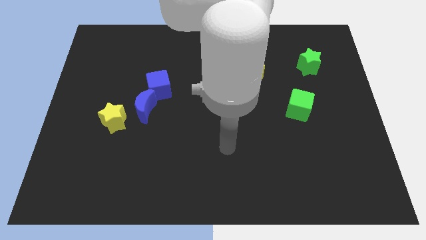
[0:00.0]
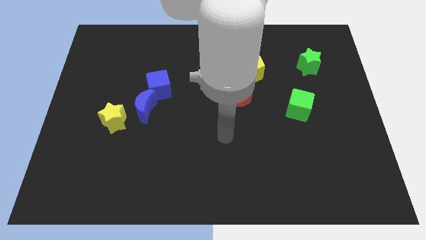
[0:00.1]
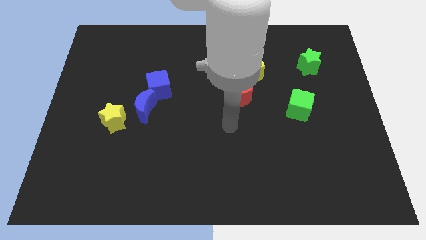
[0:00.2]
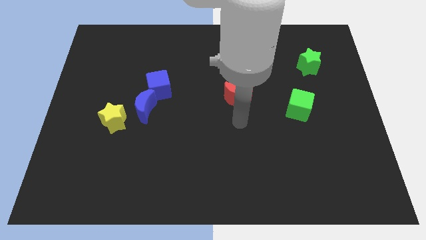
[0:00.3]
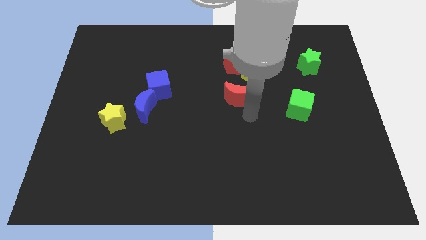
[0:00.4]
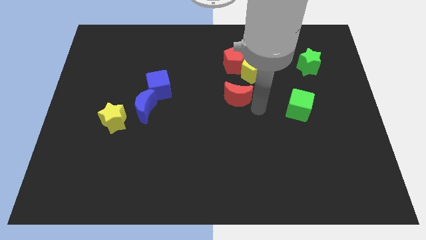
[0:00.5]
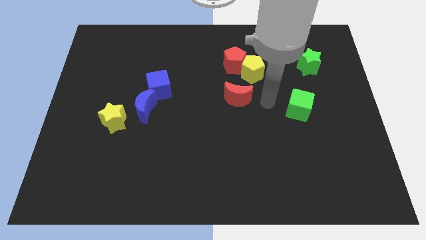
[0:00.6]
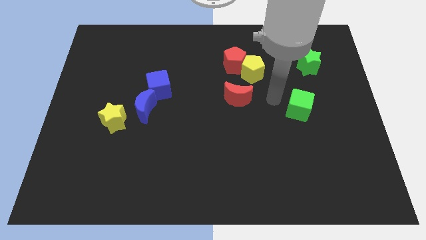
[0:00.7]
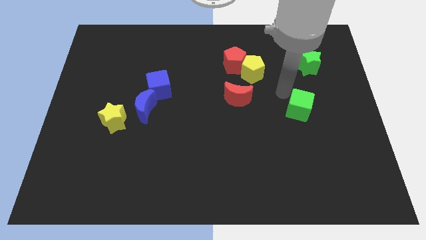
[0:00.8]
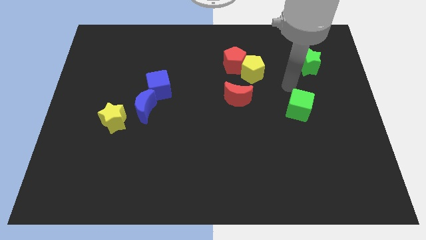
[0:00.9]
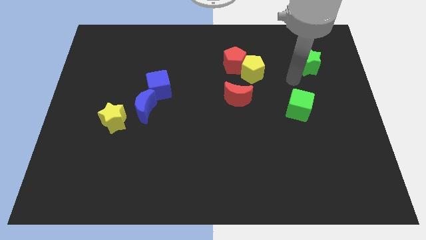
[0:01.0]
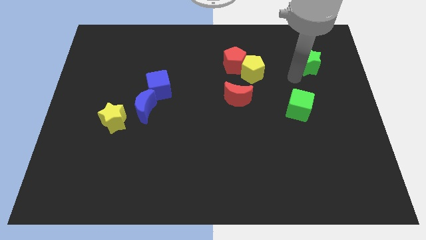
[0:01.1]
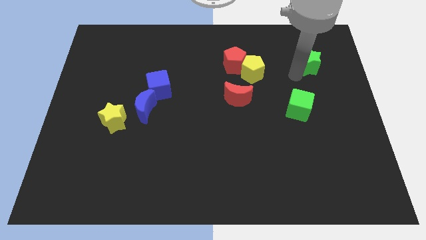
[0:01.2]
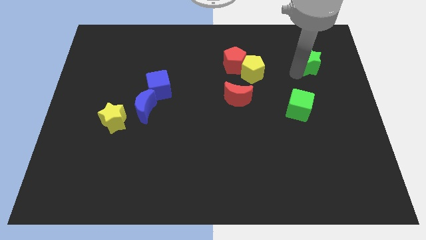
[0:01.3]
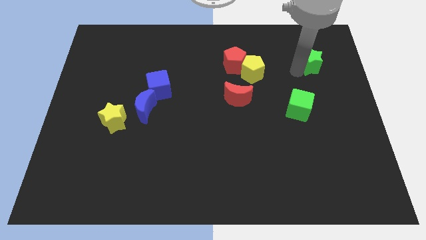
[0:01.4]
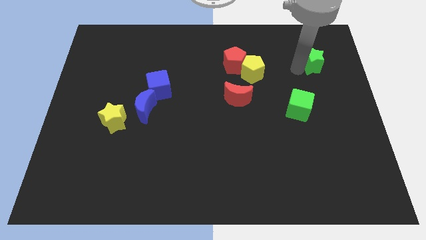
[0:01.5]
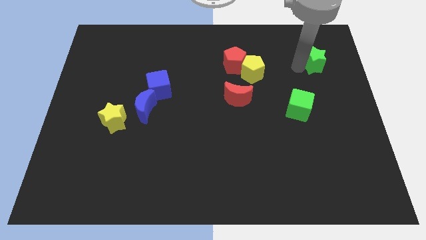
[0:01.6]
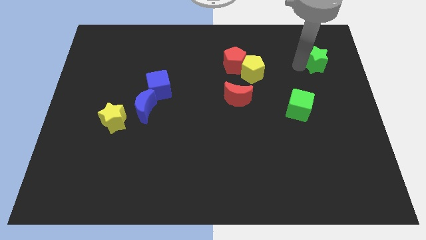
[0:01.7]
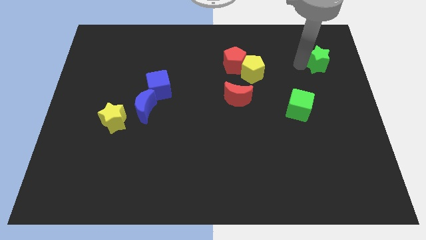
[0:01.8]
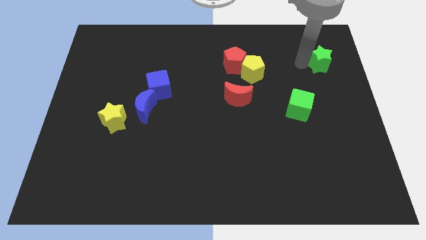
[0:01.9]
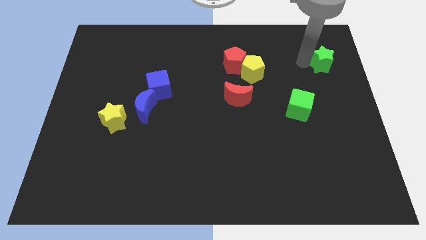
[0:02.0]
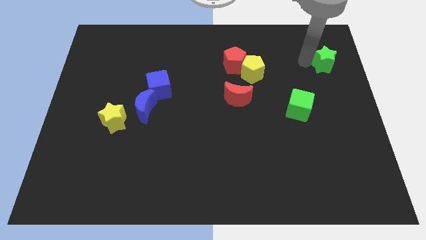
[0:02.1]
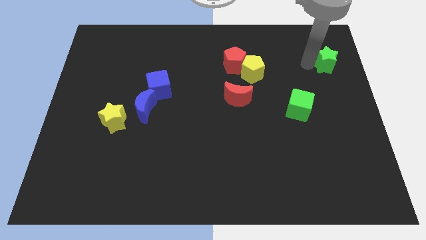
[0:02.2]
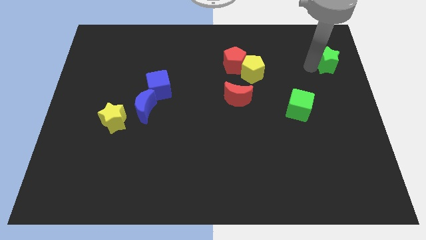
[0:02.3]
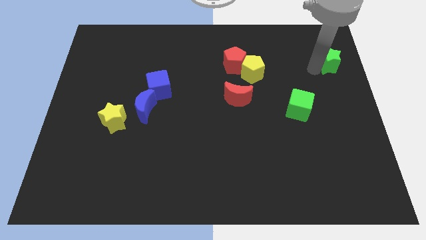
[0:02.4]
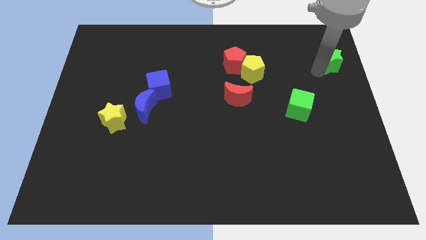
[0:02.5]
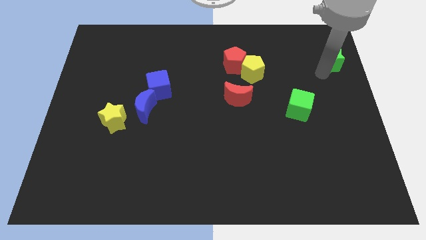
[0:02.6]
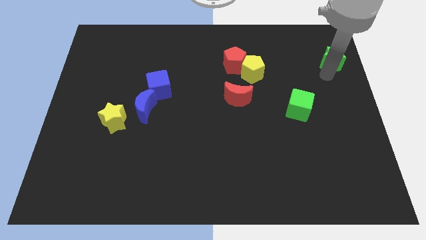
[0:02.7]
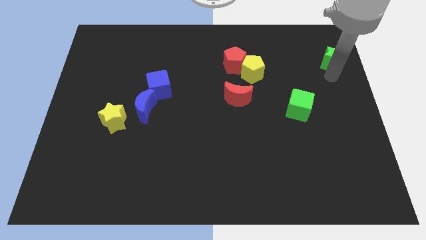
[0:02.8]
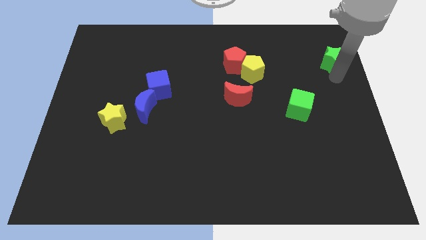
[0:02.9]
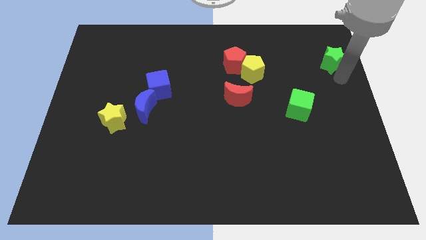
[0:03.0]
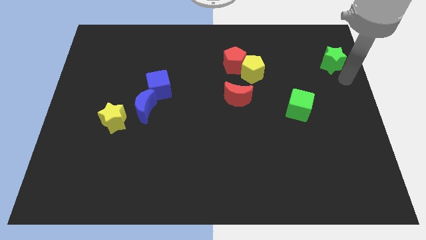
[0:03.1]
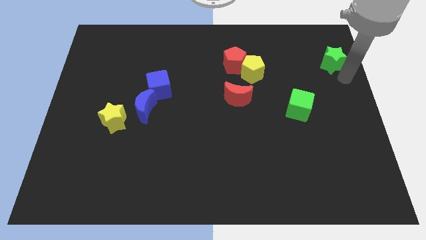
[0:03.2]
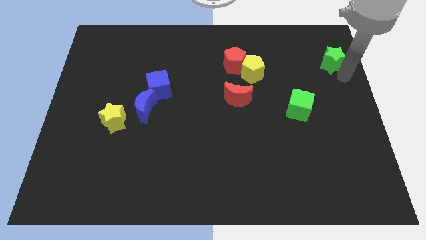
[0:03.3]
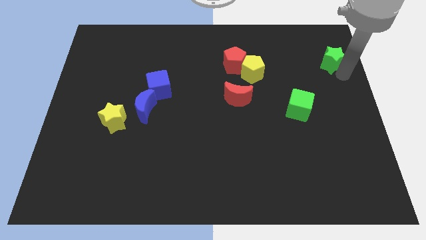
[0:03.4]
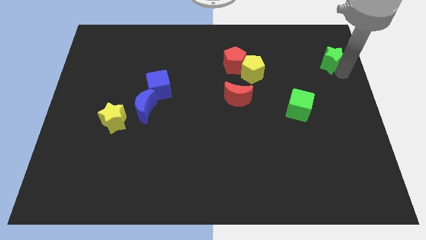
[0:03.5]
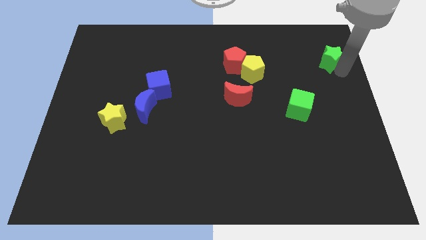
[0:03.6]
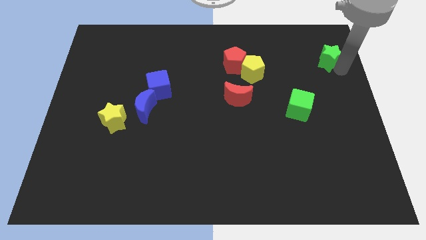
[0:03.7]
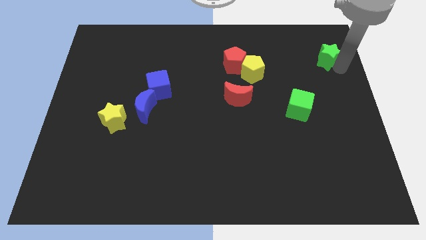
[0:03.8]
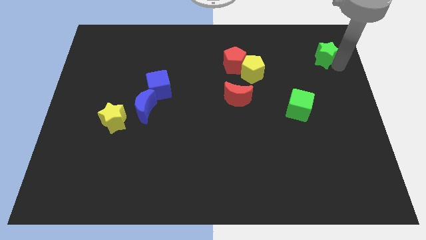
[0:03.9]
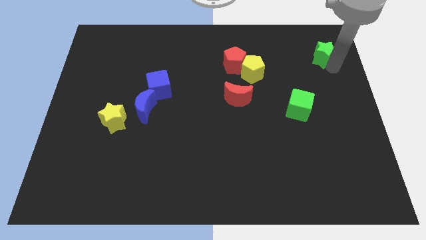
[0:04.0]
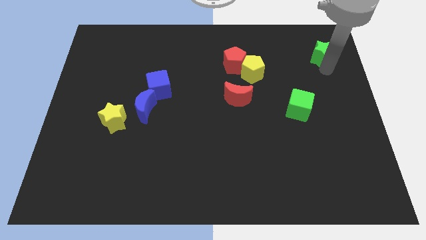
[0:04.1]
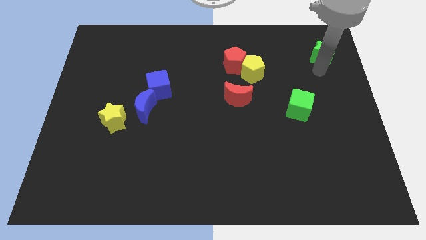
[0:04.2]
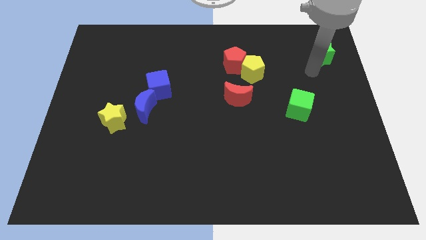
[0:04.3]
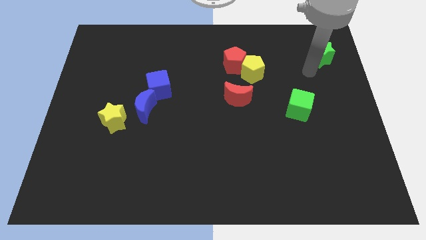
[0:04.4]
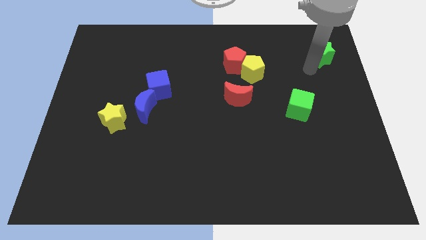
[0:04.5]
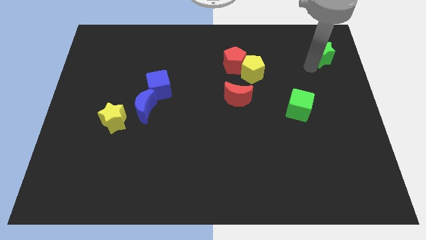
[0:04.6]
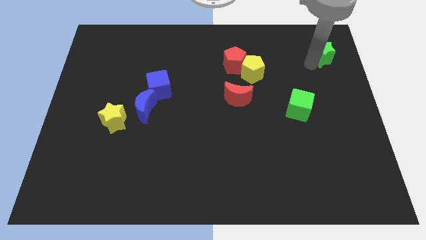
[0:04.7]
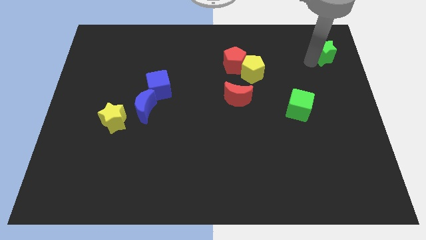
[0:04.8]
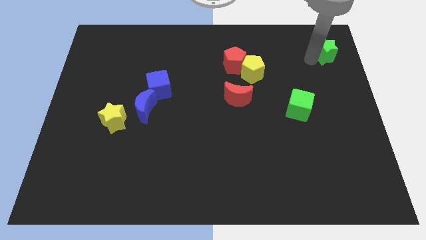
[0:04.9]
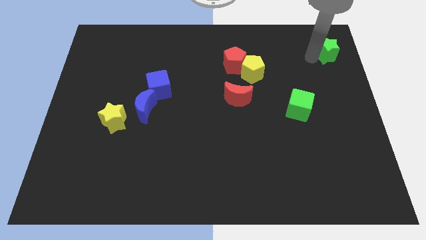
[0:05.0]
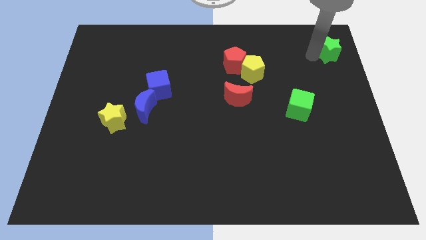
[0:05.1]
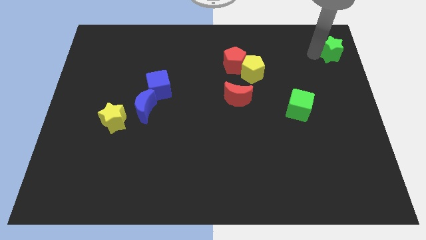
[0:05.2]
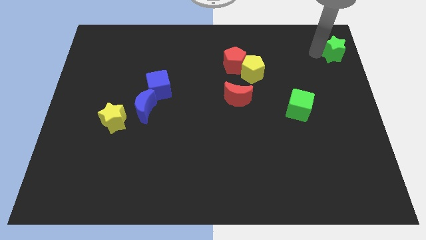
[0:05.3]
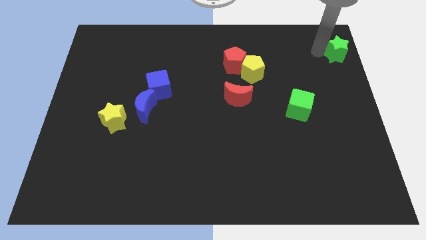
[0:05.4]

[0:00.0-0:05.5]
push the green star to the top right
